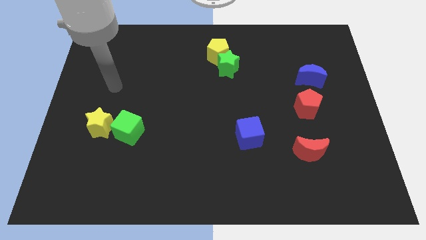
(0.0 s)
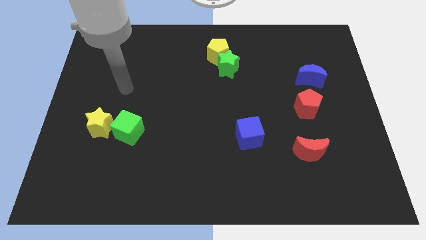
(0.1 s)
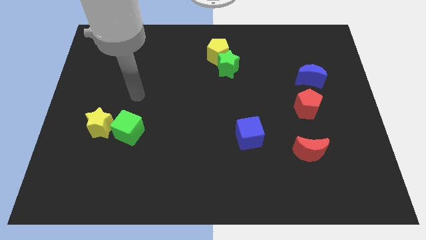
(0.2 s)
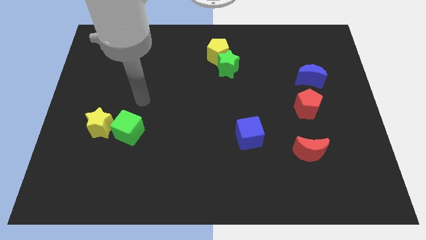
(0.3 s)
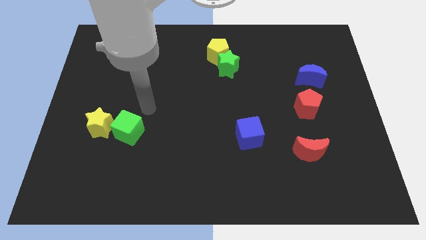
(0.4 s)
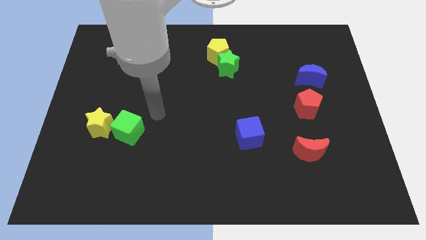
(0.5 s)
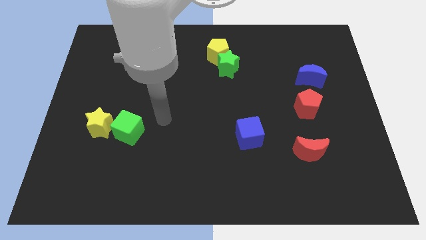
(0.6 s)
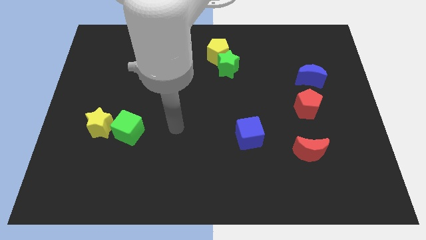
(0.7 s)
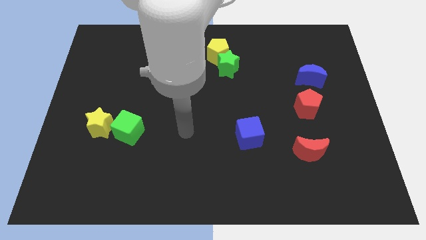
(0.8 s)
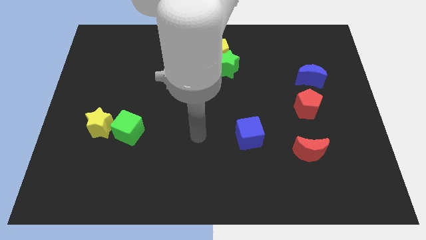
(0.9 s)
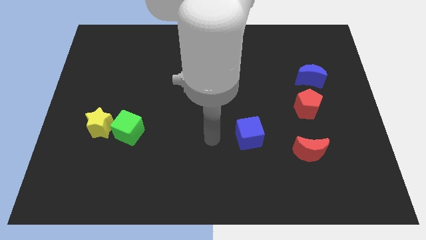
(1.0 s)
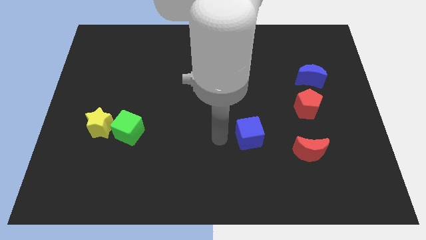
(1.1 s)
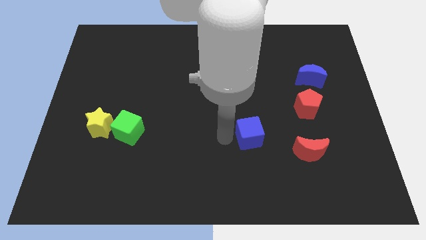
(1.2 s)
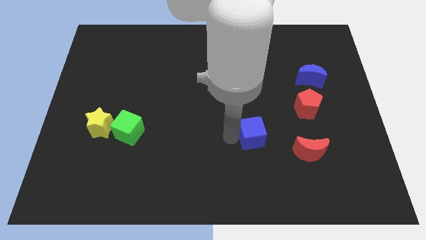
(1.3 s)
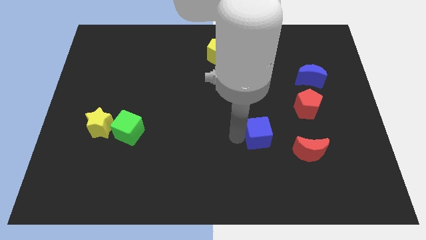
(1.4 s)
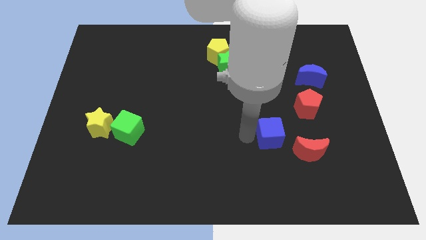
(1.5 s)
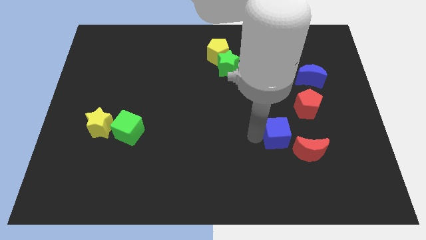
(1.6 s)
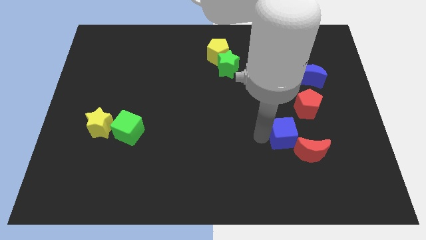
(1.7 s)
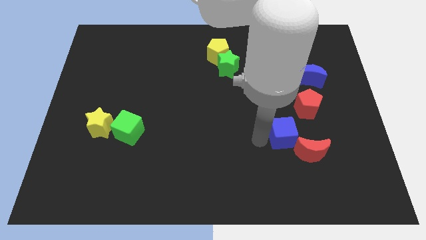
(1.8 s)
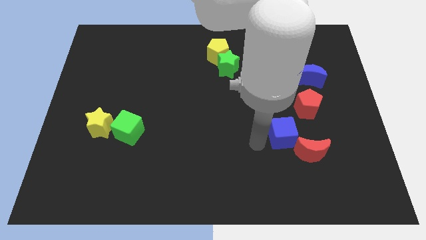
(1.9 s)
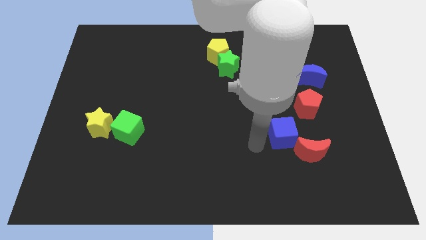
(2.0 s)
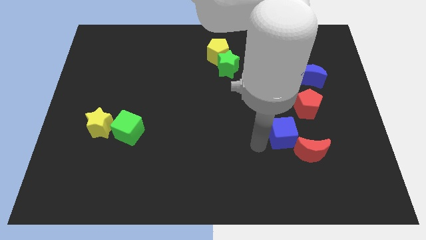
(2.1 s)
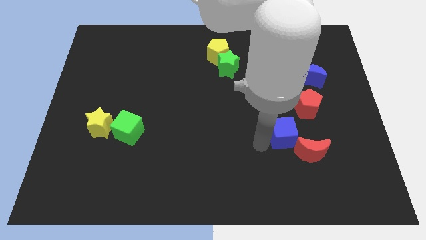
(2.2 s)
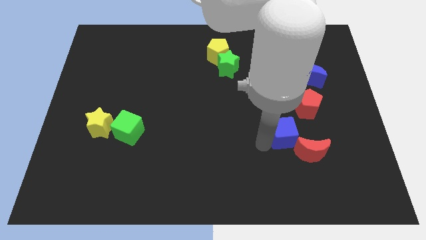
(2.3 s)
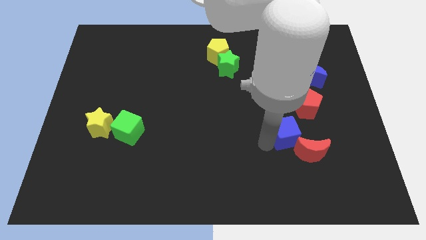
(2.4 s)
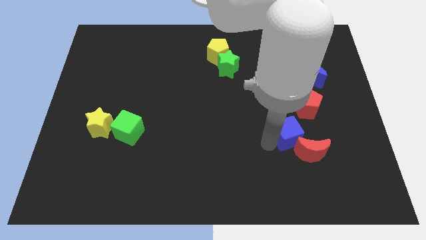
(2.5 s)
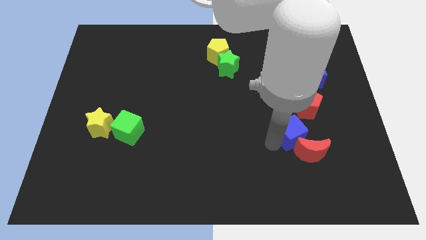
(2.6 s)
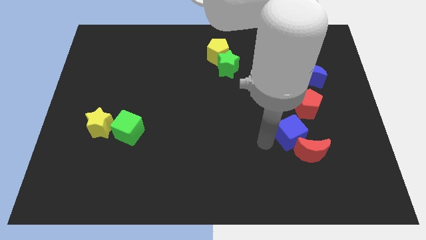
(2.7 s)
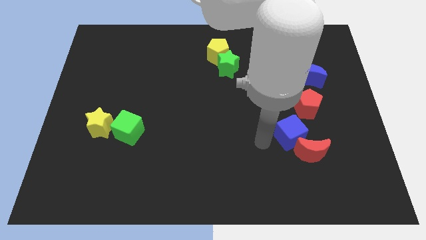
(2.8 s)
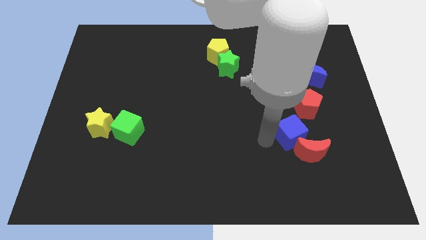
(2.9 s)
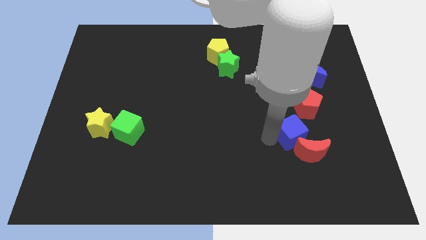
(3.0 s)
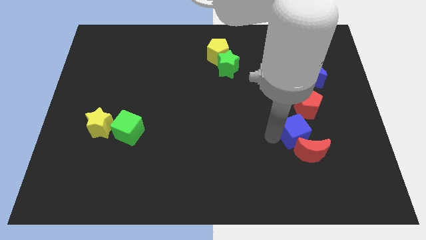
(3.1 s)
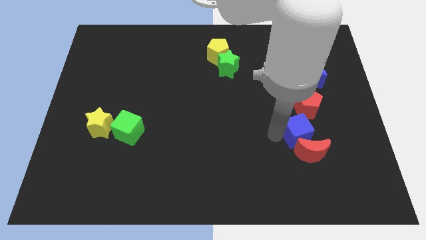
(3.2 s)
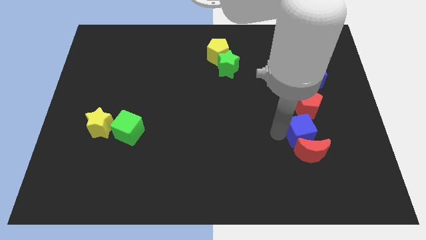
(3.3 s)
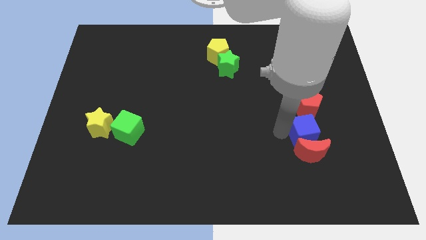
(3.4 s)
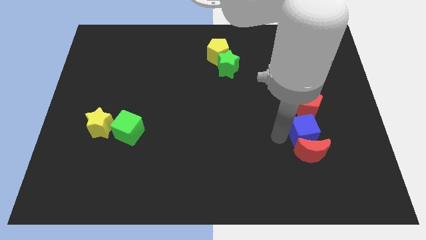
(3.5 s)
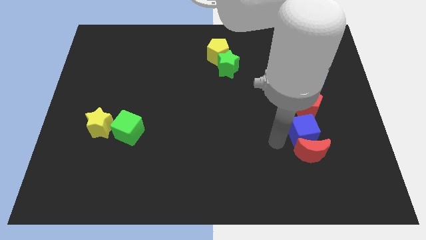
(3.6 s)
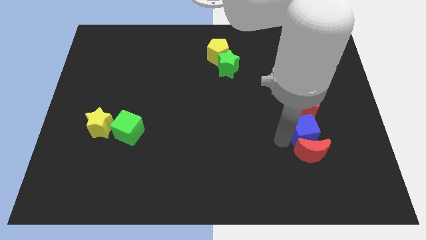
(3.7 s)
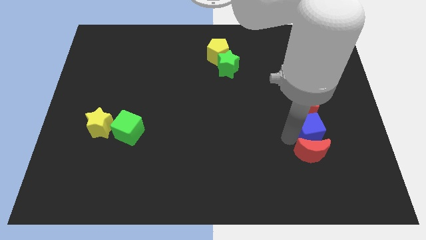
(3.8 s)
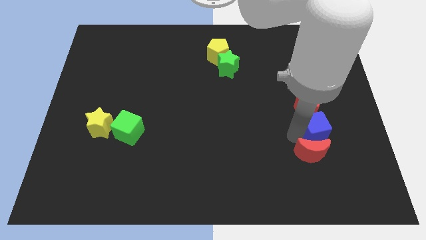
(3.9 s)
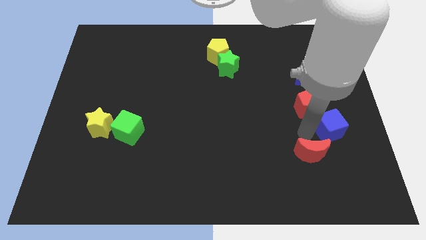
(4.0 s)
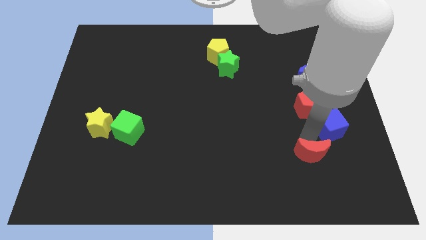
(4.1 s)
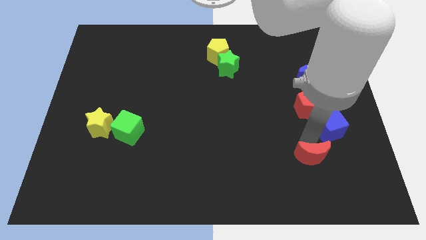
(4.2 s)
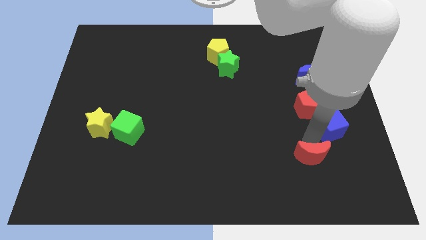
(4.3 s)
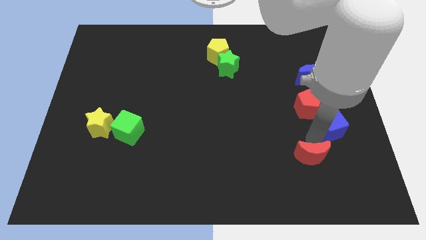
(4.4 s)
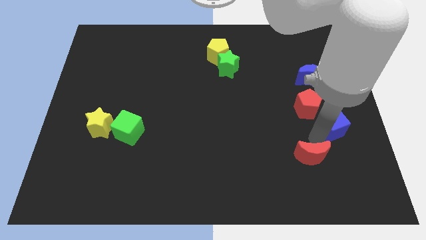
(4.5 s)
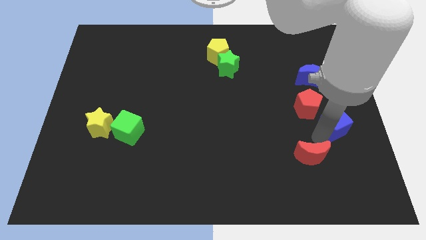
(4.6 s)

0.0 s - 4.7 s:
push the blue cube to the right side

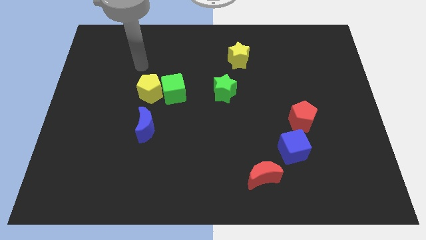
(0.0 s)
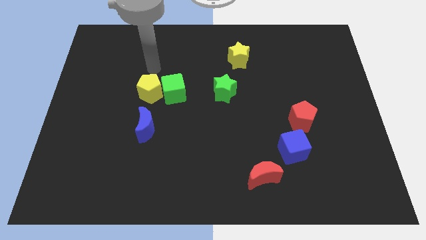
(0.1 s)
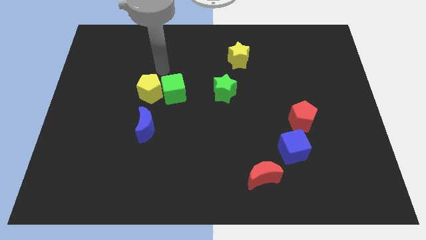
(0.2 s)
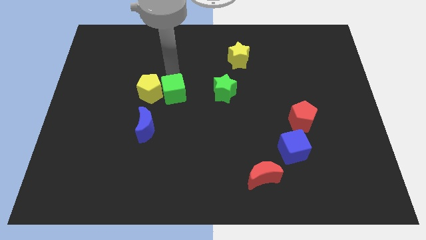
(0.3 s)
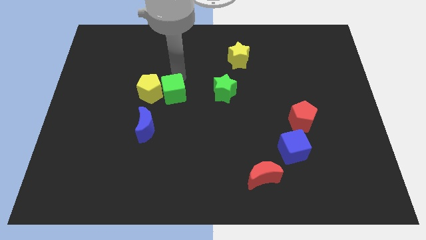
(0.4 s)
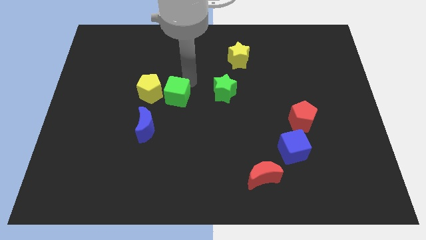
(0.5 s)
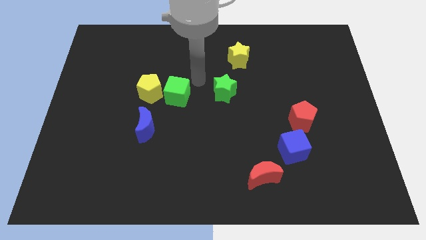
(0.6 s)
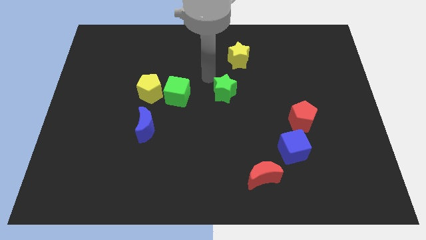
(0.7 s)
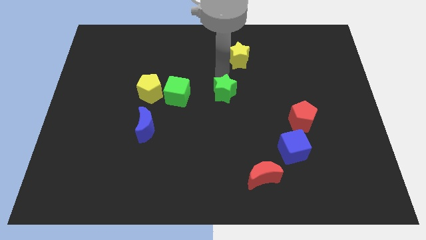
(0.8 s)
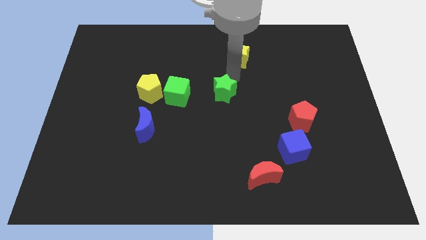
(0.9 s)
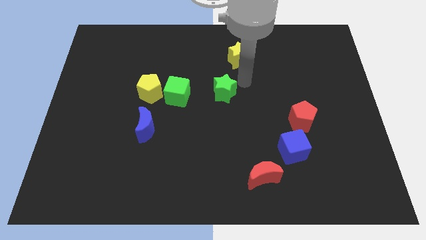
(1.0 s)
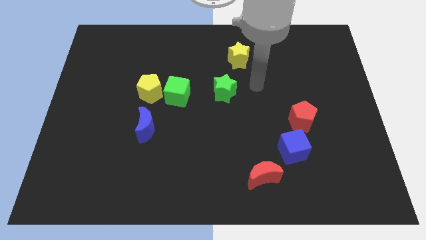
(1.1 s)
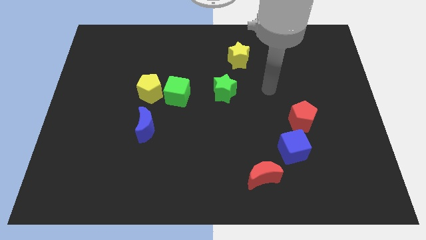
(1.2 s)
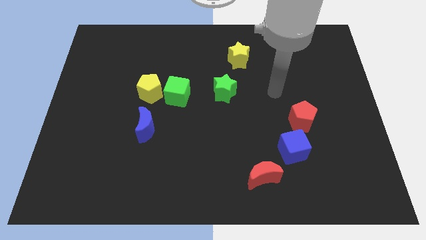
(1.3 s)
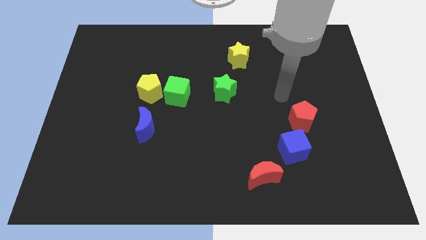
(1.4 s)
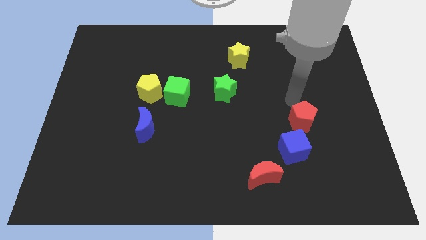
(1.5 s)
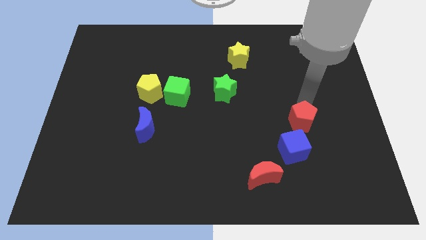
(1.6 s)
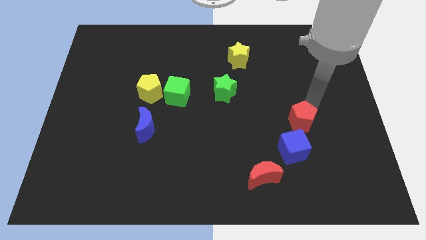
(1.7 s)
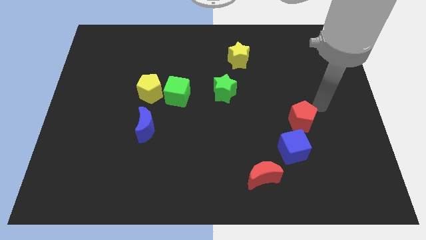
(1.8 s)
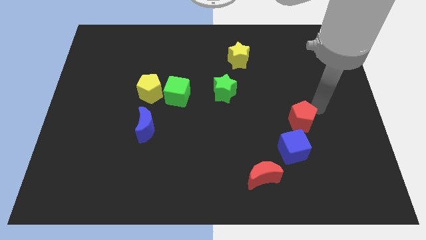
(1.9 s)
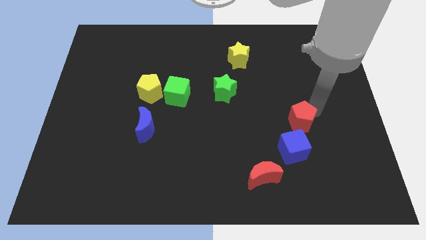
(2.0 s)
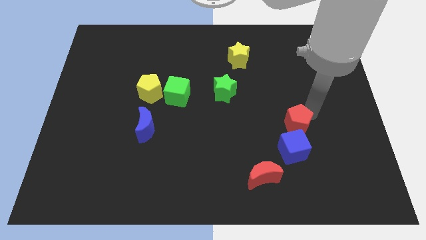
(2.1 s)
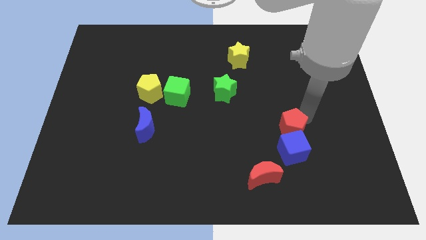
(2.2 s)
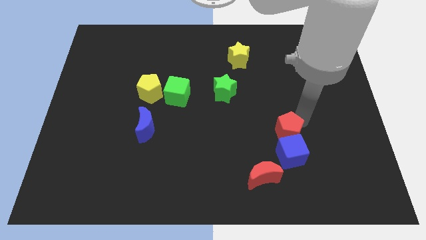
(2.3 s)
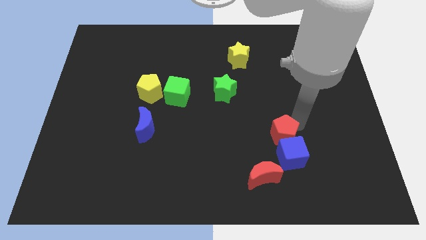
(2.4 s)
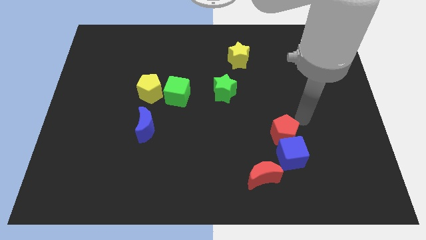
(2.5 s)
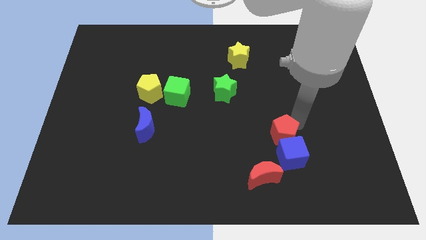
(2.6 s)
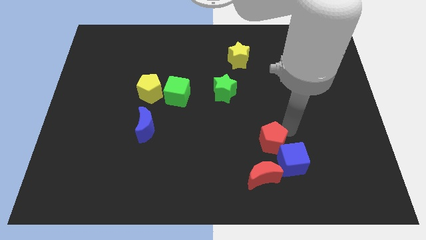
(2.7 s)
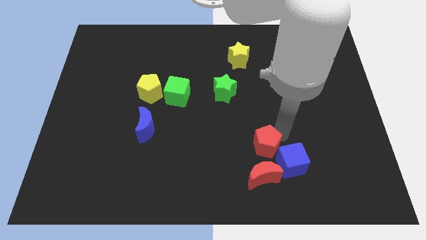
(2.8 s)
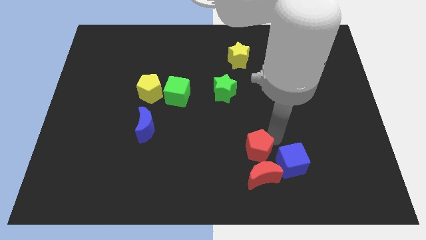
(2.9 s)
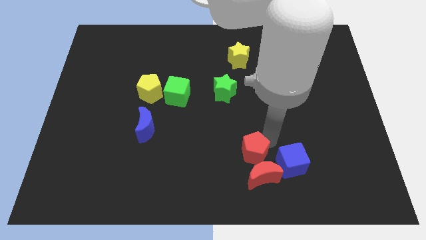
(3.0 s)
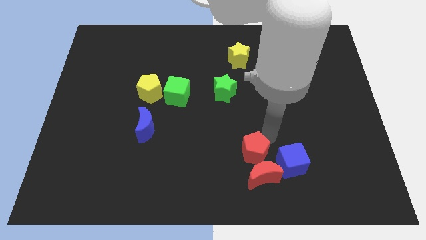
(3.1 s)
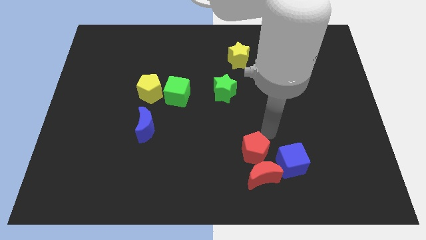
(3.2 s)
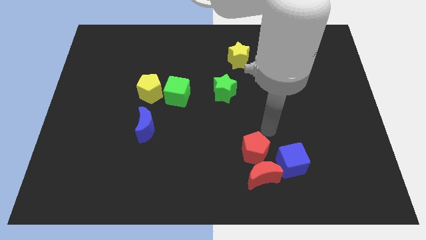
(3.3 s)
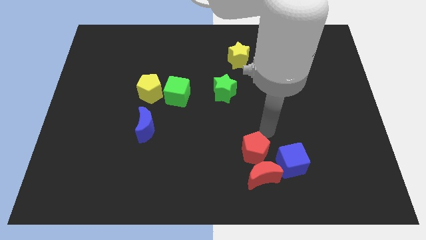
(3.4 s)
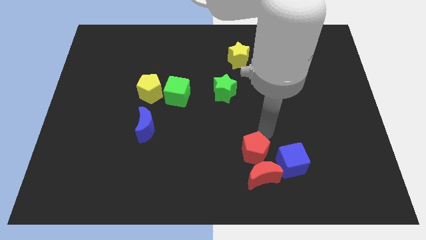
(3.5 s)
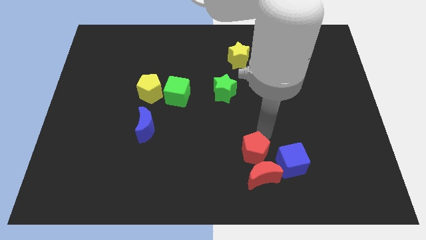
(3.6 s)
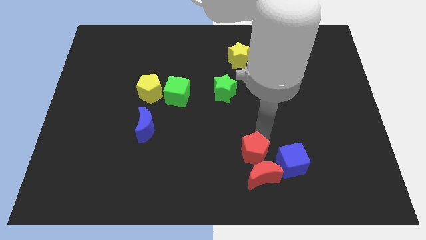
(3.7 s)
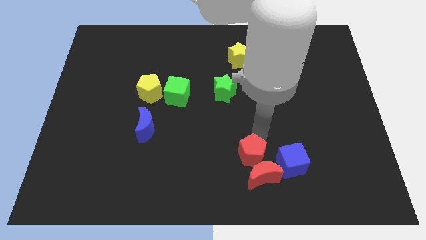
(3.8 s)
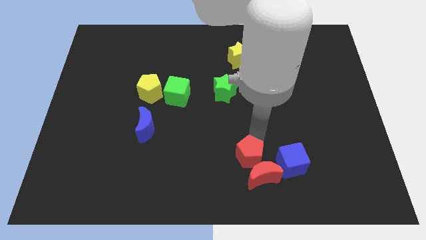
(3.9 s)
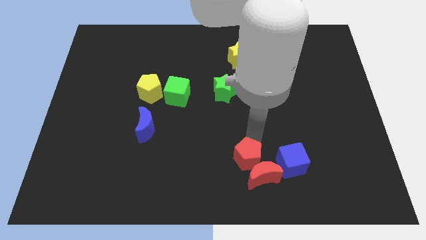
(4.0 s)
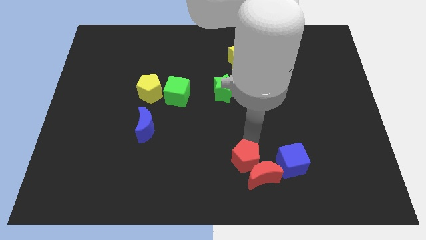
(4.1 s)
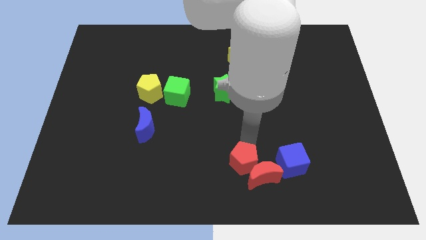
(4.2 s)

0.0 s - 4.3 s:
push the red pentagon to the bottom side
